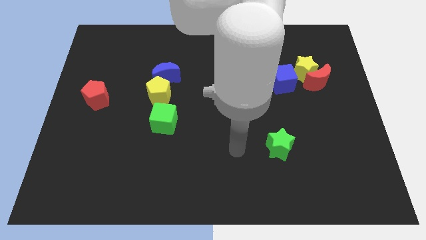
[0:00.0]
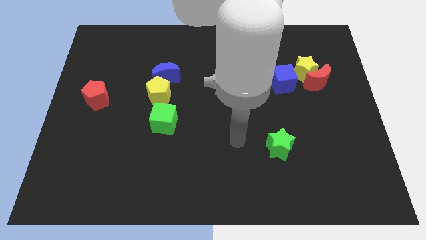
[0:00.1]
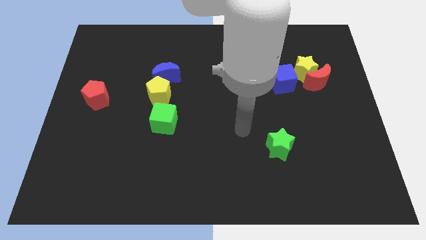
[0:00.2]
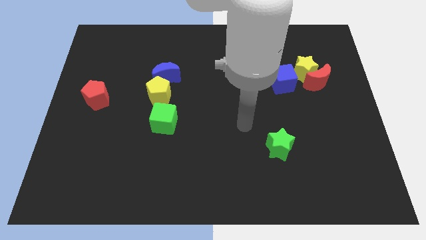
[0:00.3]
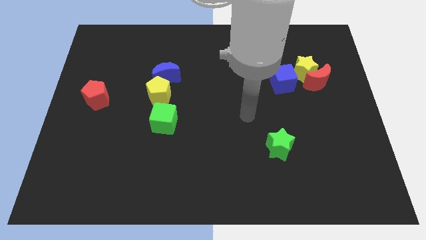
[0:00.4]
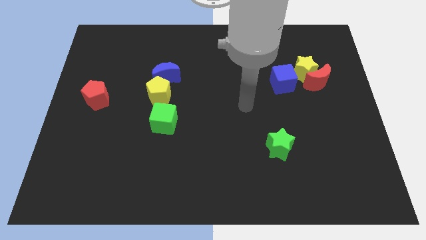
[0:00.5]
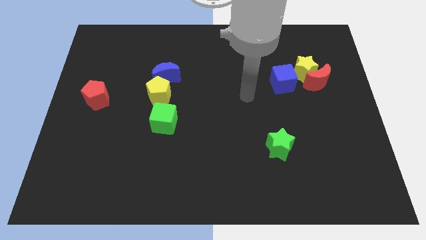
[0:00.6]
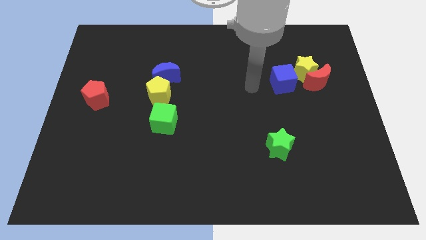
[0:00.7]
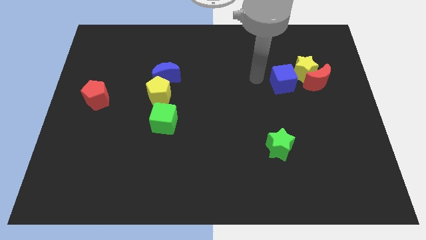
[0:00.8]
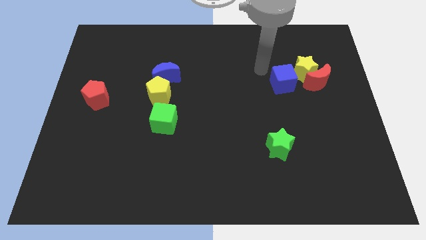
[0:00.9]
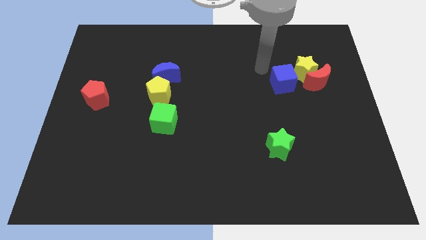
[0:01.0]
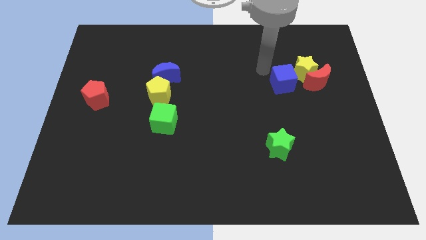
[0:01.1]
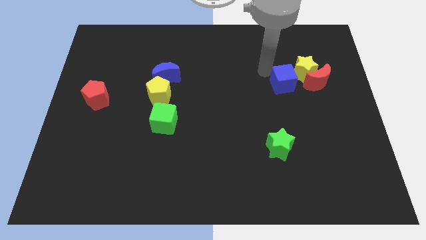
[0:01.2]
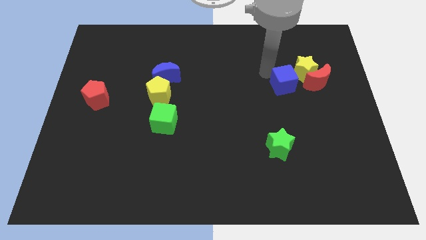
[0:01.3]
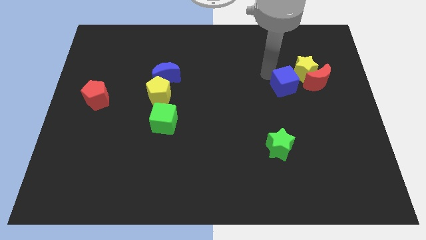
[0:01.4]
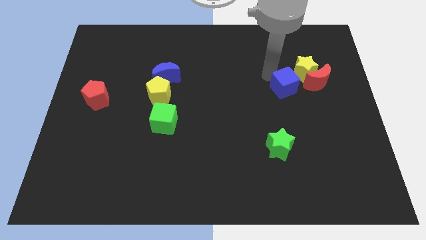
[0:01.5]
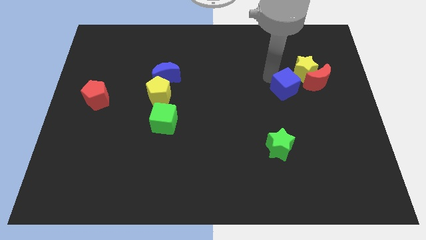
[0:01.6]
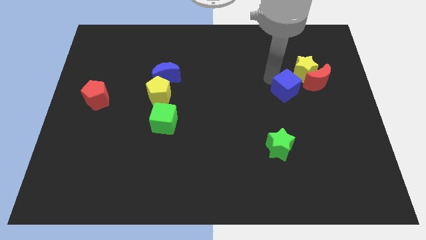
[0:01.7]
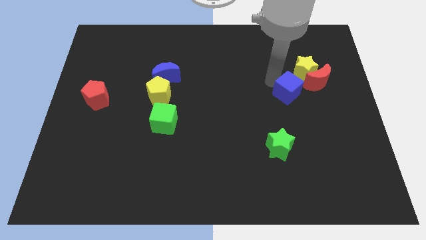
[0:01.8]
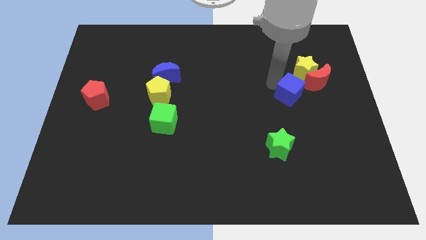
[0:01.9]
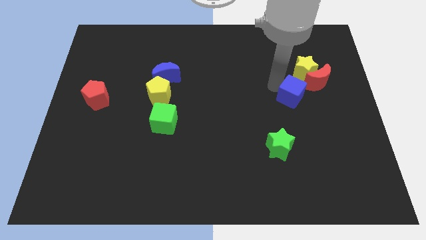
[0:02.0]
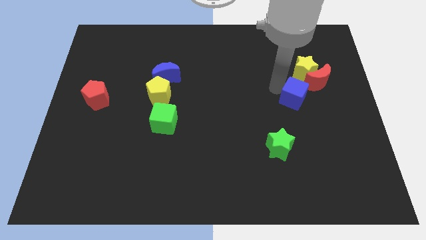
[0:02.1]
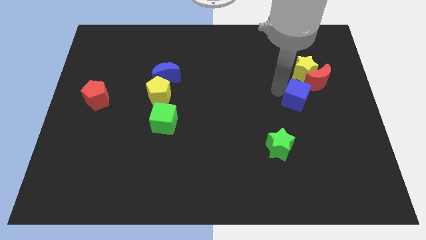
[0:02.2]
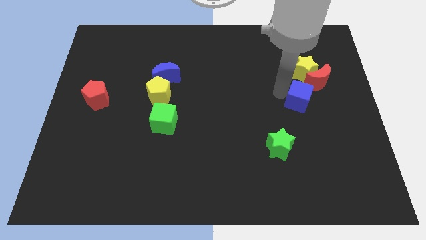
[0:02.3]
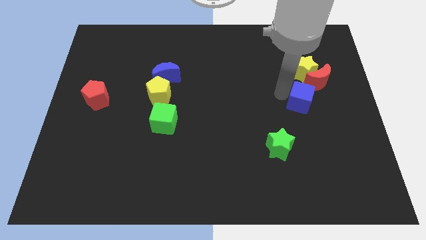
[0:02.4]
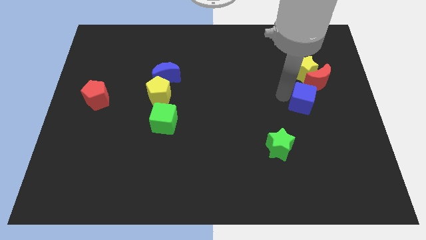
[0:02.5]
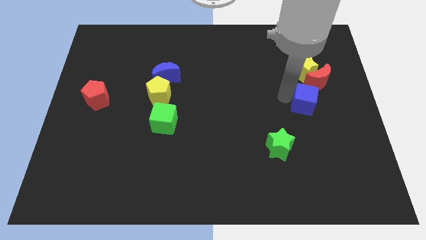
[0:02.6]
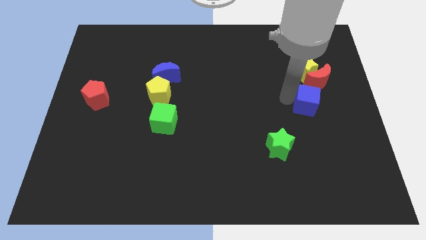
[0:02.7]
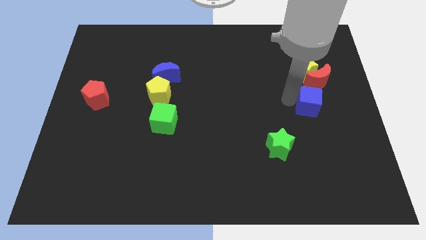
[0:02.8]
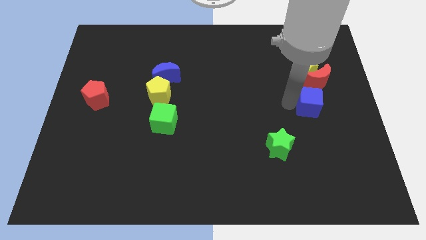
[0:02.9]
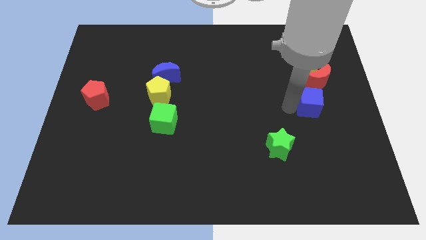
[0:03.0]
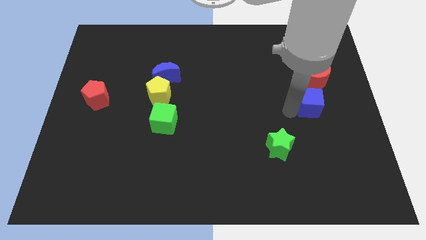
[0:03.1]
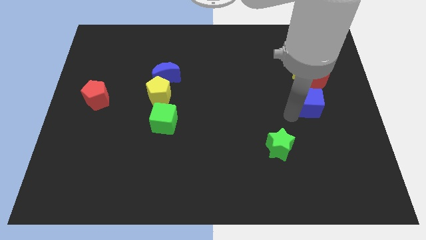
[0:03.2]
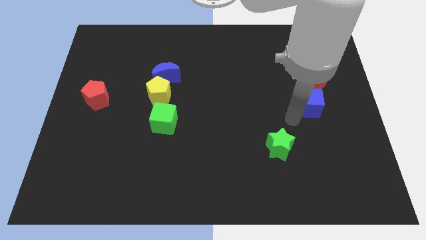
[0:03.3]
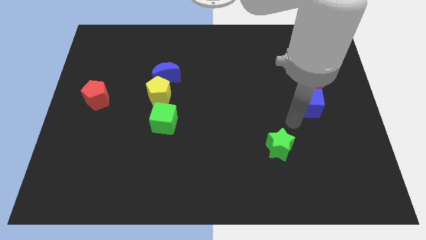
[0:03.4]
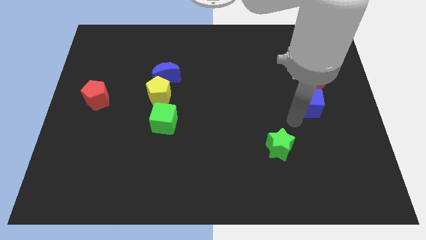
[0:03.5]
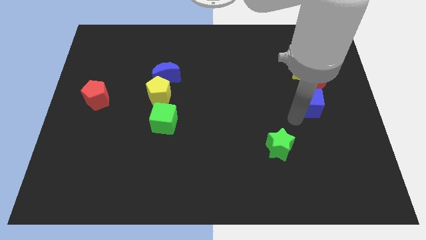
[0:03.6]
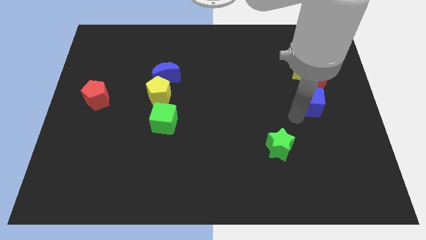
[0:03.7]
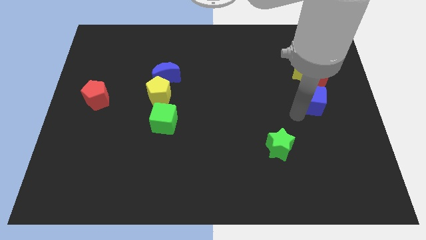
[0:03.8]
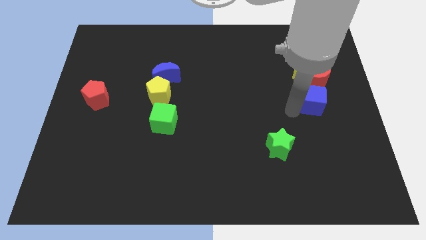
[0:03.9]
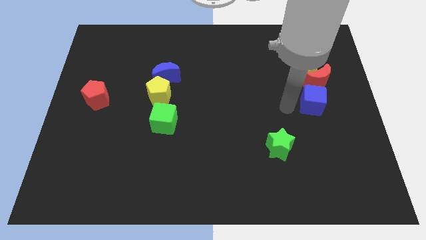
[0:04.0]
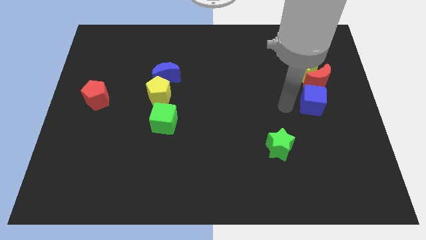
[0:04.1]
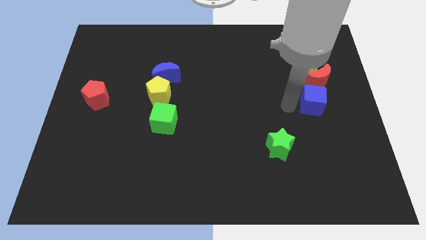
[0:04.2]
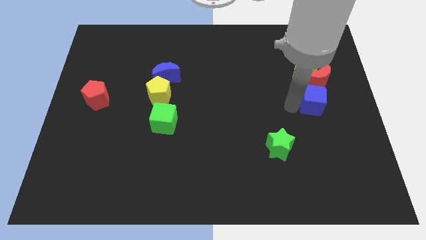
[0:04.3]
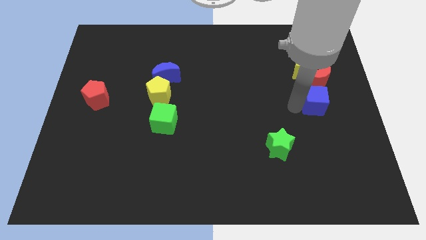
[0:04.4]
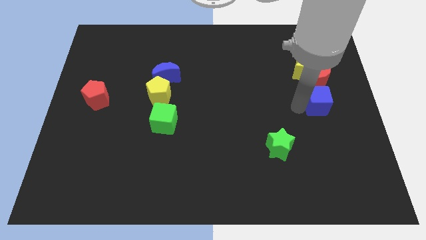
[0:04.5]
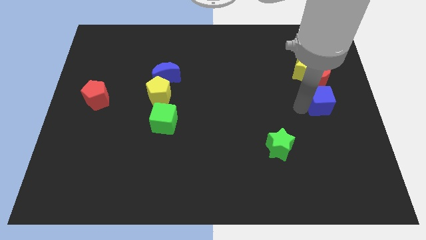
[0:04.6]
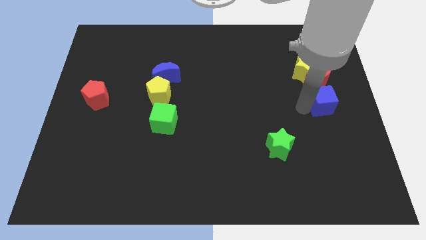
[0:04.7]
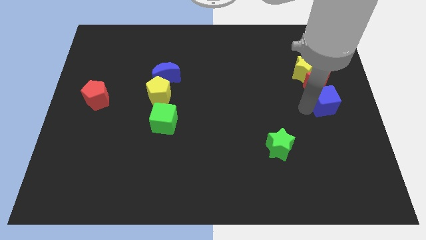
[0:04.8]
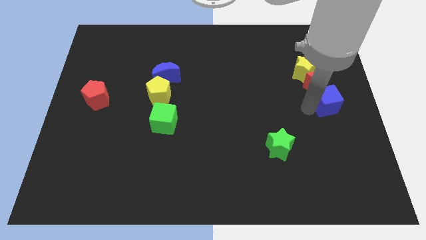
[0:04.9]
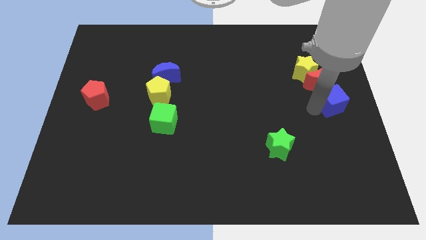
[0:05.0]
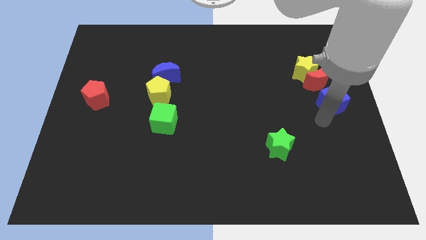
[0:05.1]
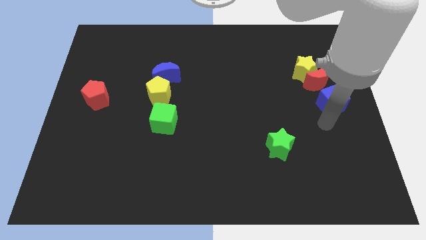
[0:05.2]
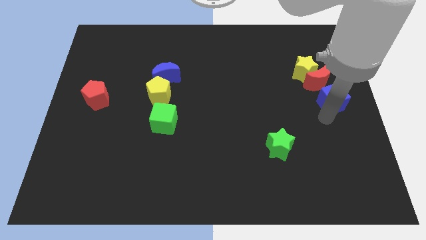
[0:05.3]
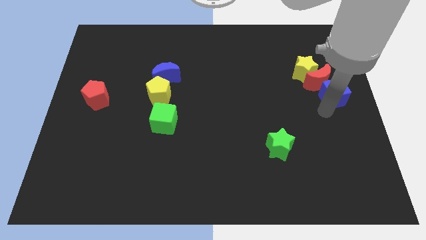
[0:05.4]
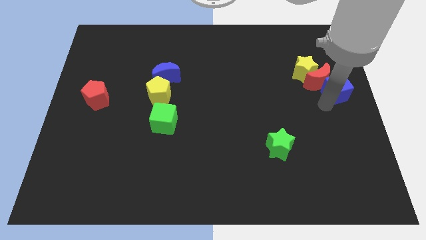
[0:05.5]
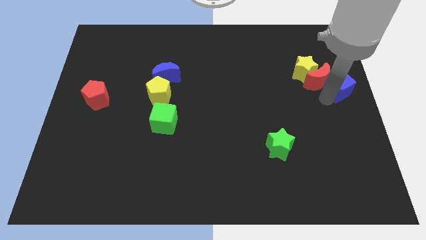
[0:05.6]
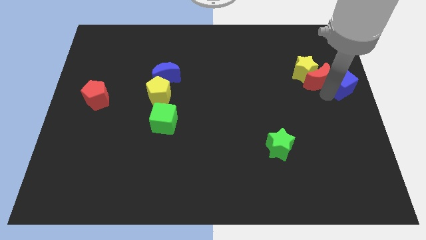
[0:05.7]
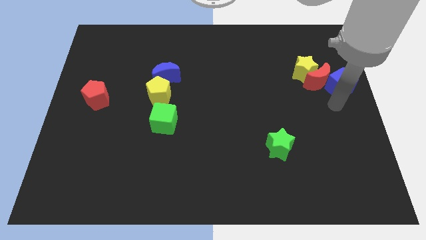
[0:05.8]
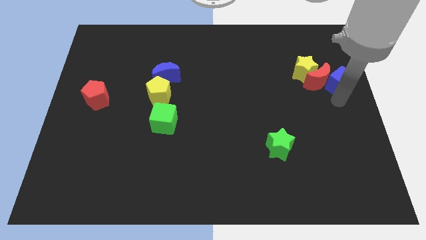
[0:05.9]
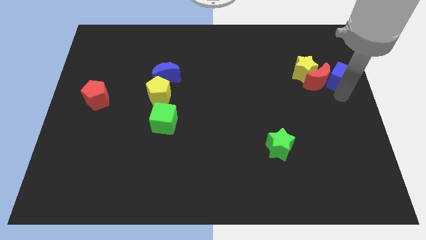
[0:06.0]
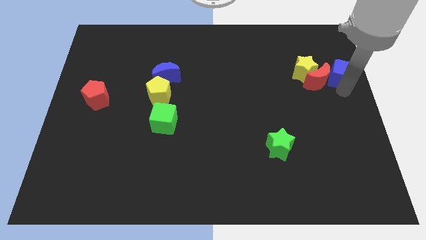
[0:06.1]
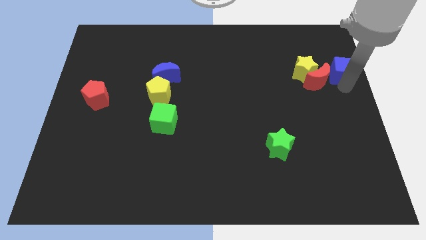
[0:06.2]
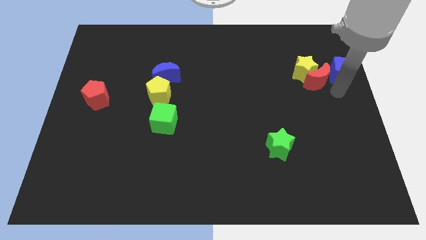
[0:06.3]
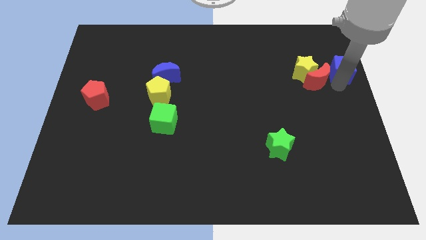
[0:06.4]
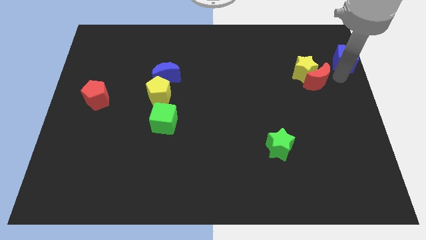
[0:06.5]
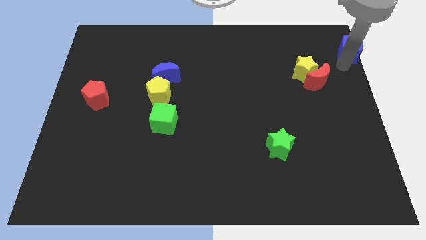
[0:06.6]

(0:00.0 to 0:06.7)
push the blue cube to the top right corner
